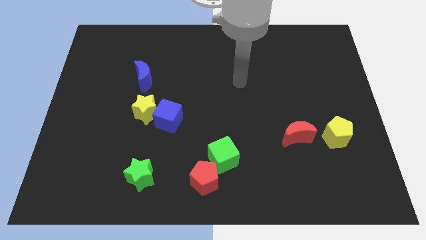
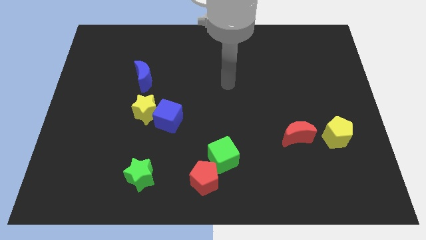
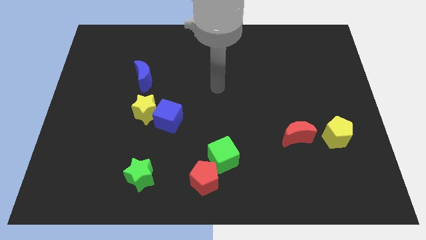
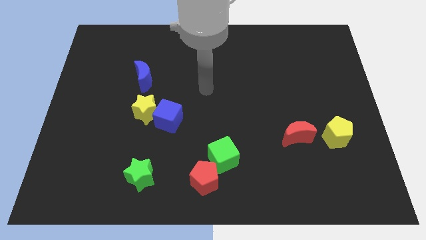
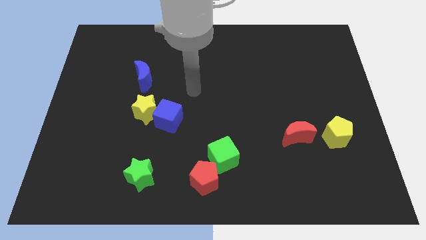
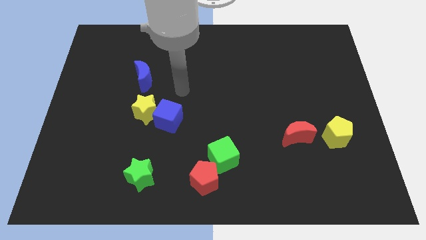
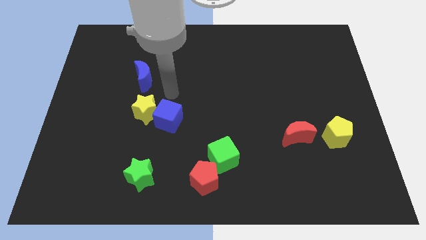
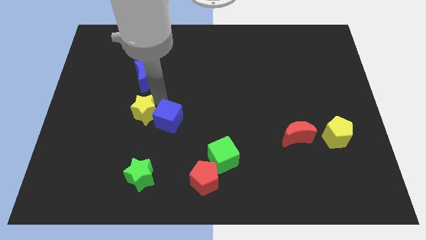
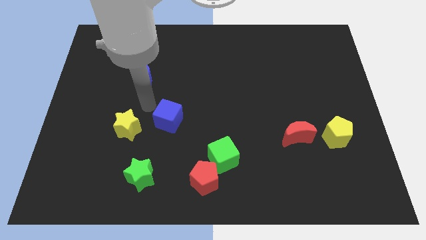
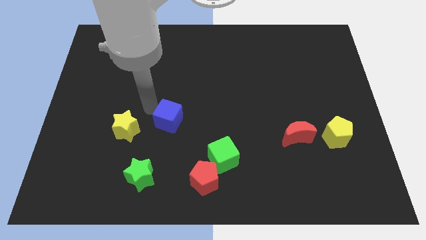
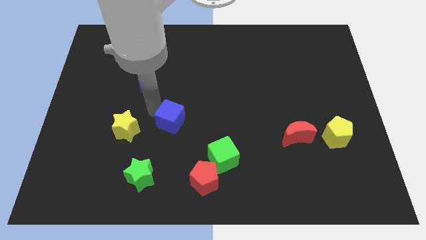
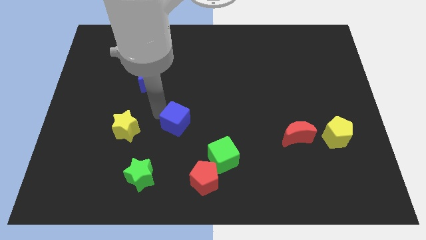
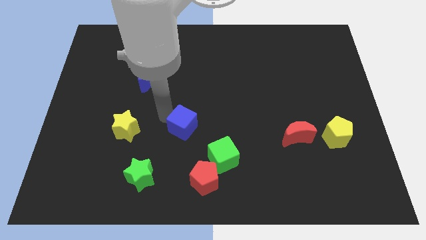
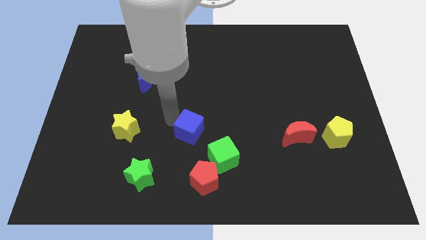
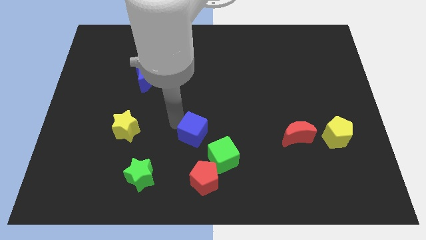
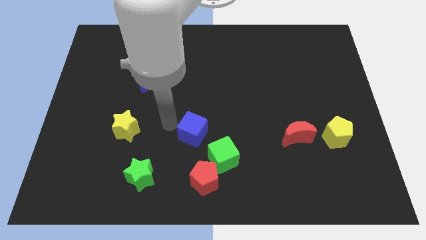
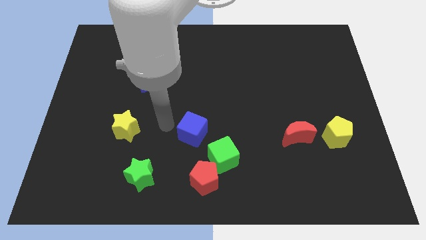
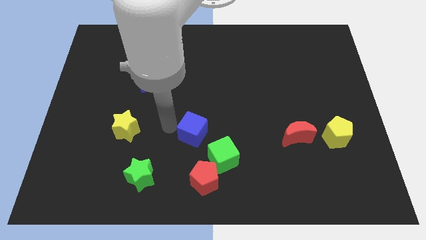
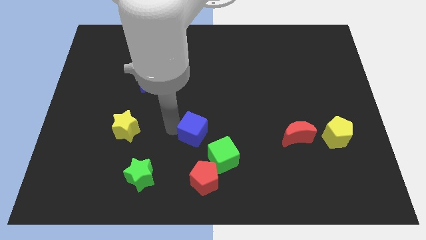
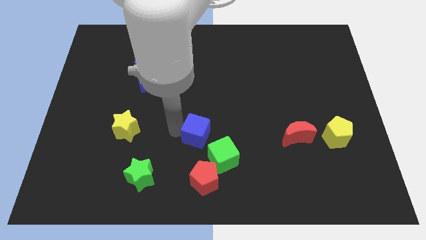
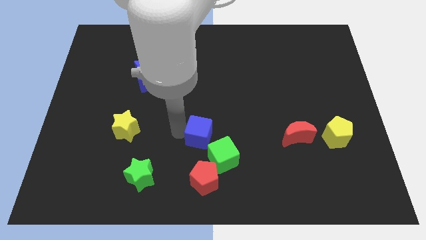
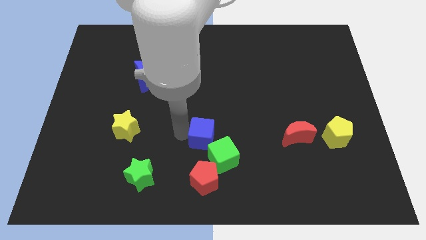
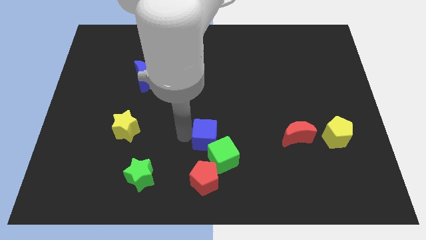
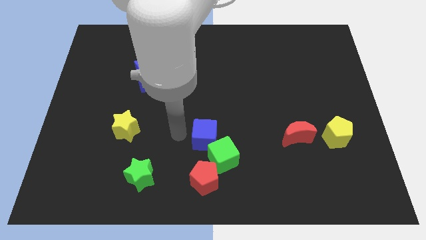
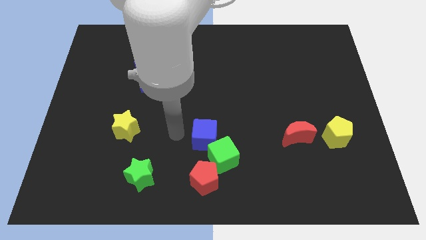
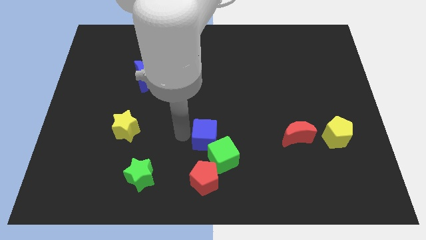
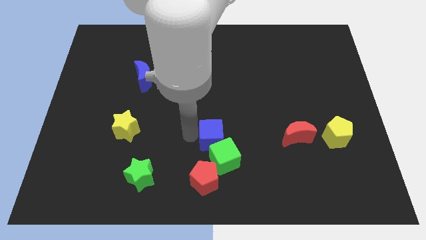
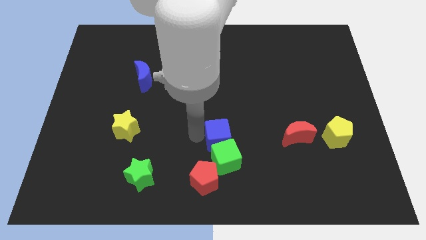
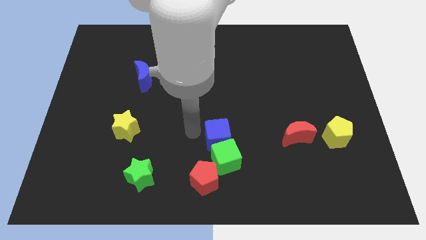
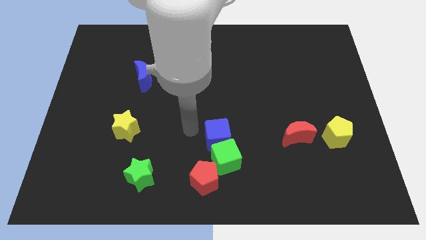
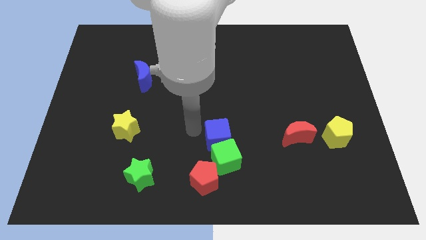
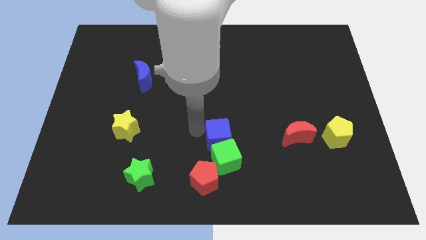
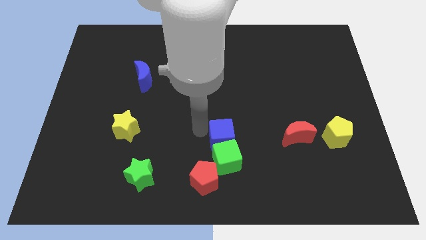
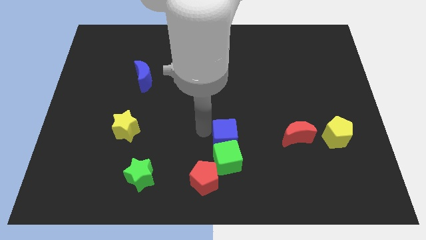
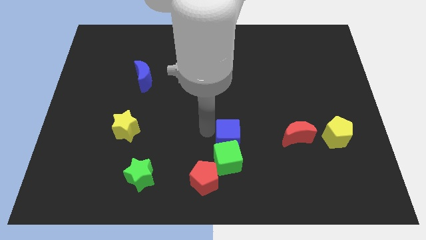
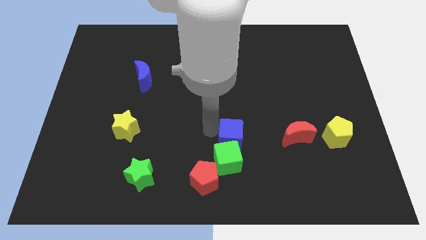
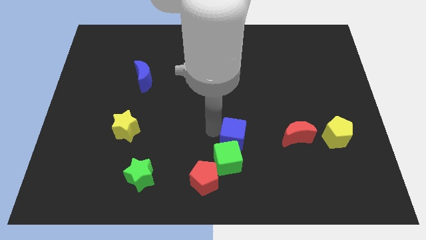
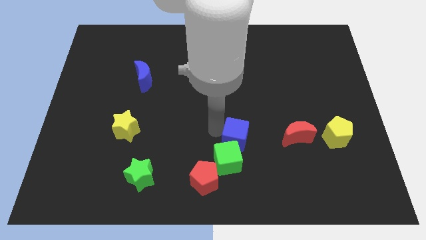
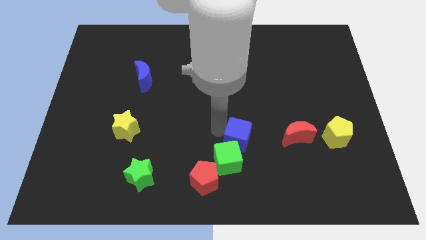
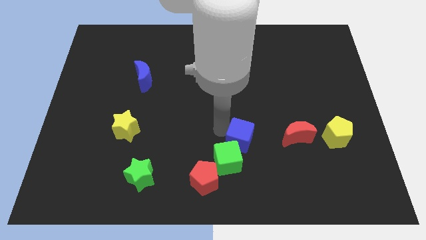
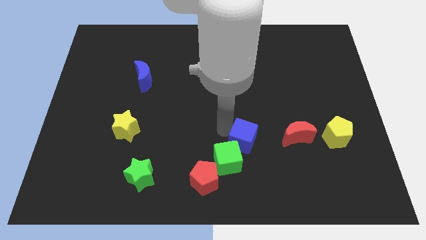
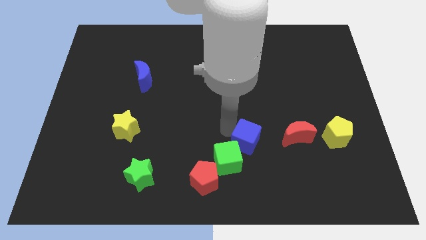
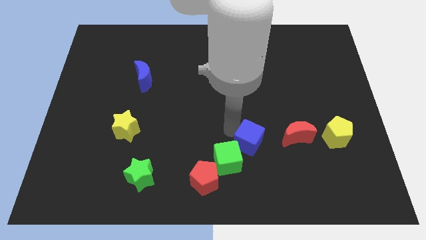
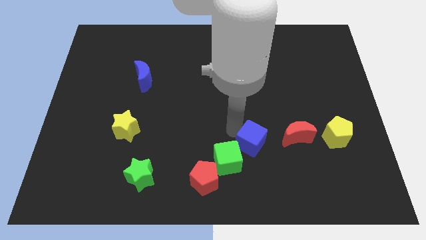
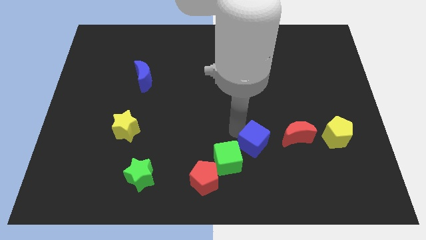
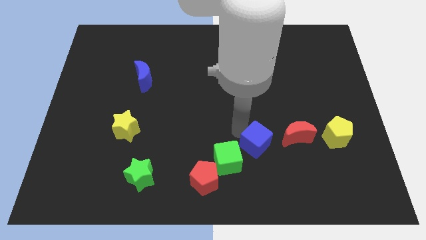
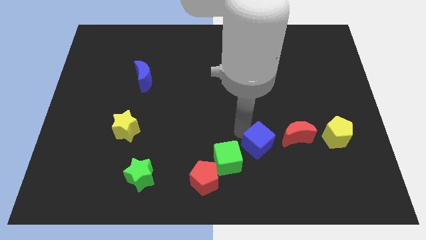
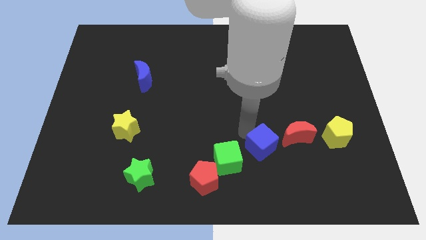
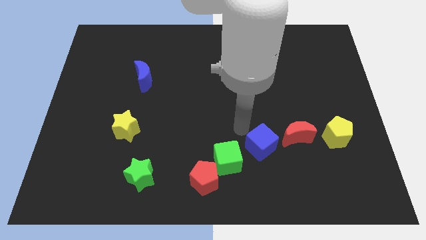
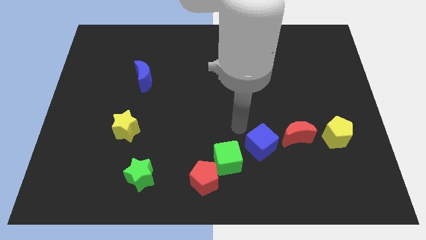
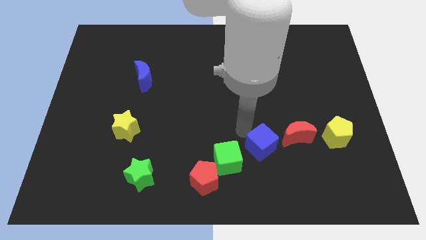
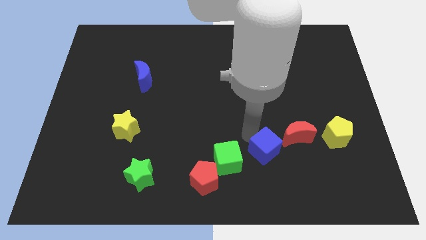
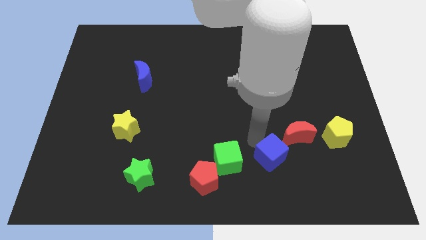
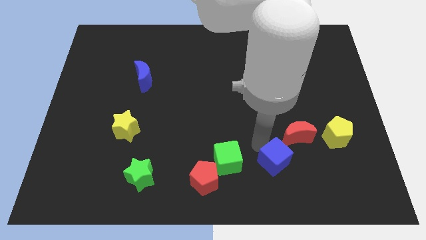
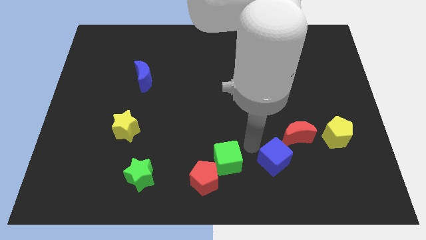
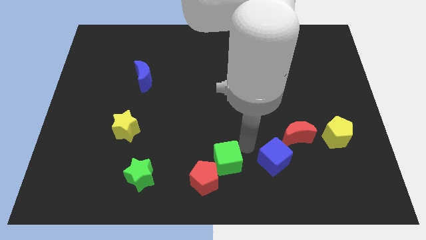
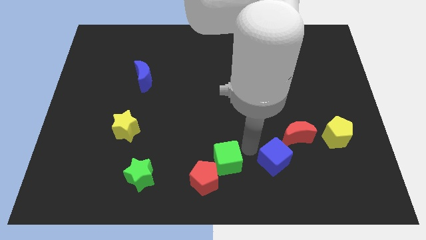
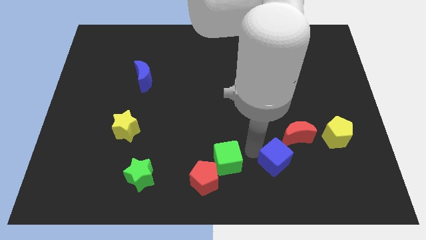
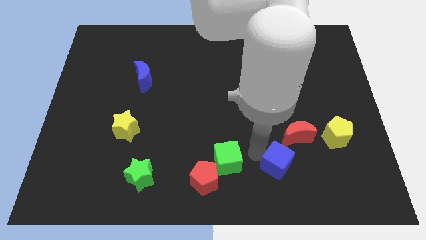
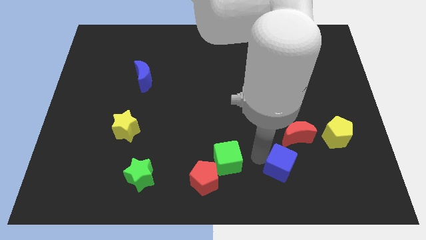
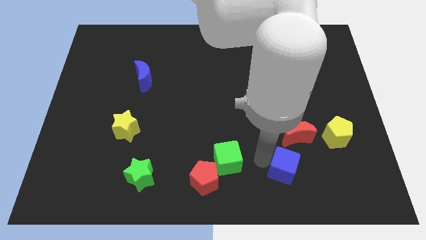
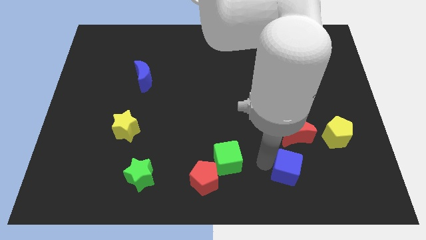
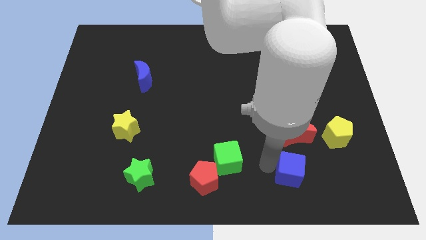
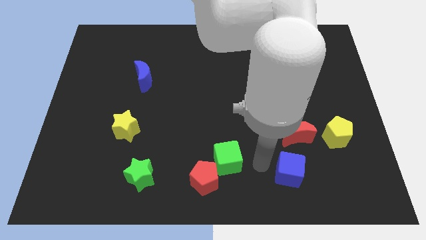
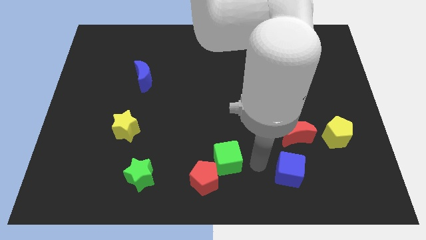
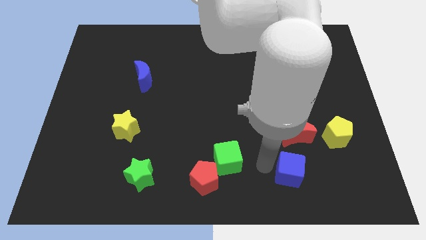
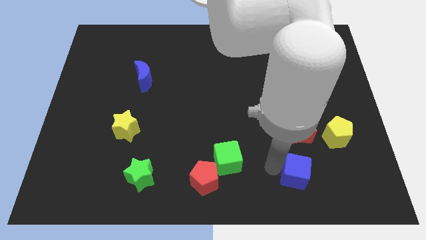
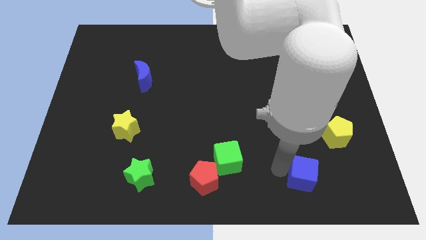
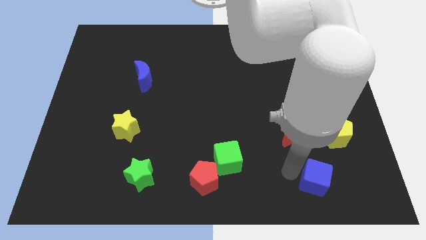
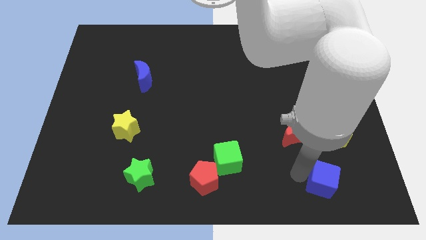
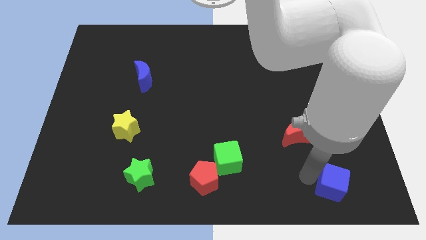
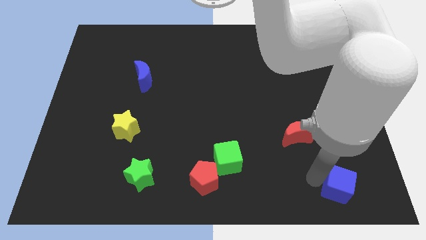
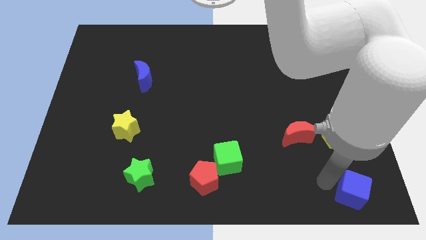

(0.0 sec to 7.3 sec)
slide the blue cube to the bottom right of the board
